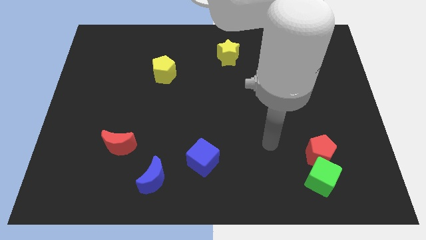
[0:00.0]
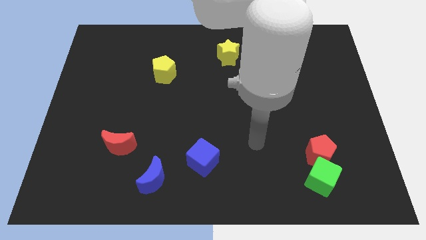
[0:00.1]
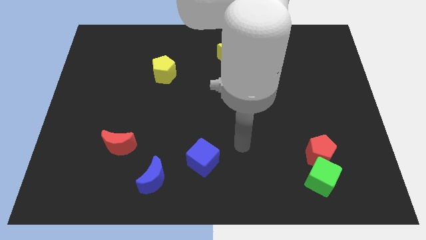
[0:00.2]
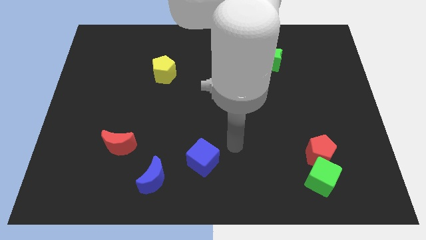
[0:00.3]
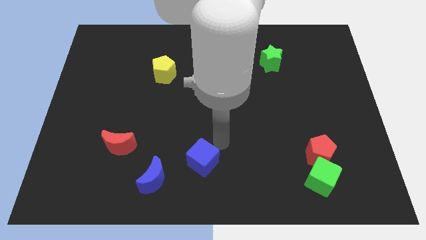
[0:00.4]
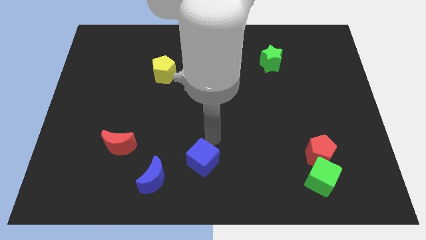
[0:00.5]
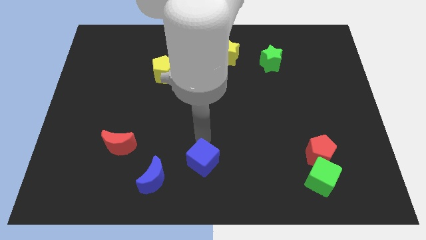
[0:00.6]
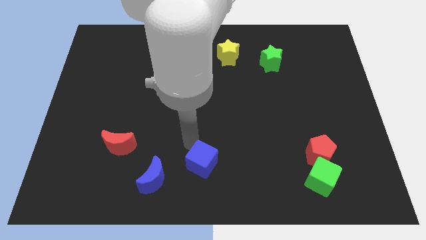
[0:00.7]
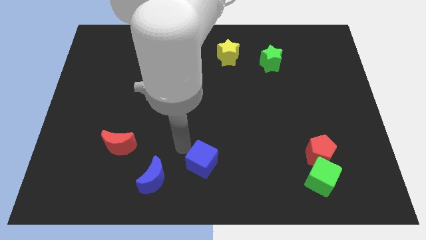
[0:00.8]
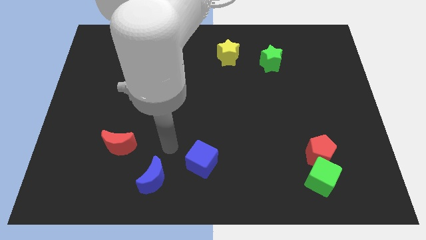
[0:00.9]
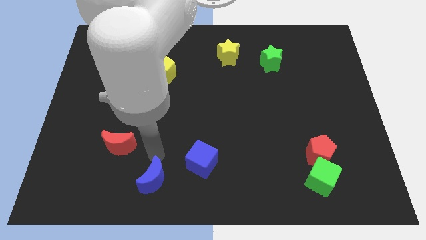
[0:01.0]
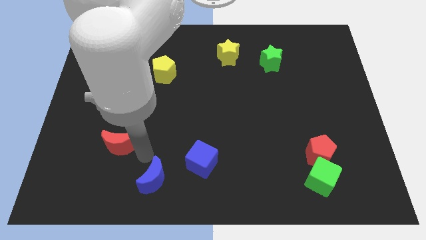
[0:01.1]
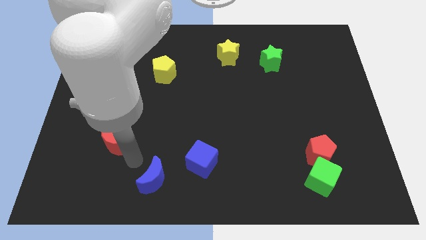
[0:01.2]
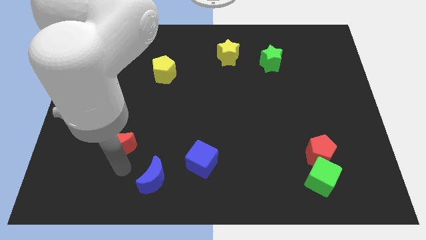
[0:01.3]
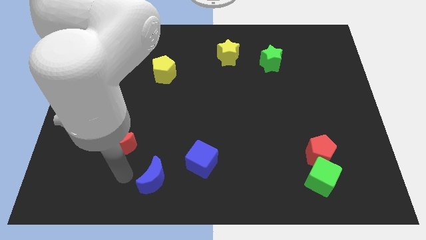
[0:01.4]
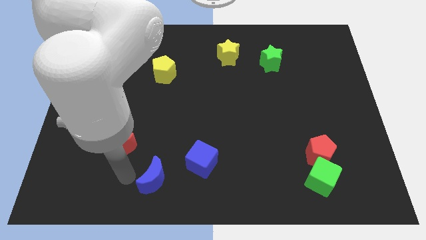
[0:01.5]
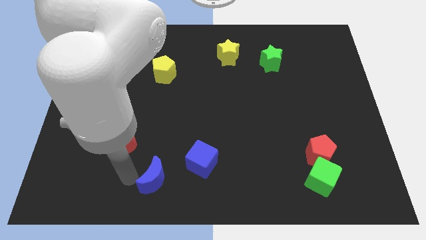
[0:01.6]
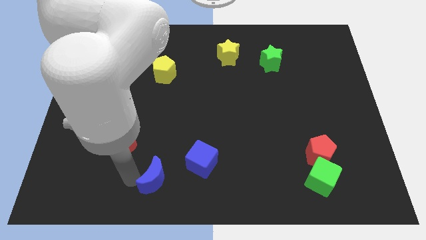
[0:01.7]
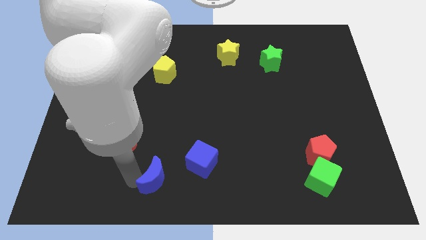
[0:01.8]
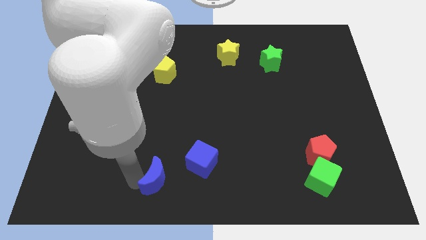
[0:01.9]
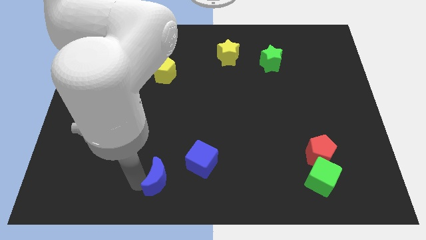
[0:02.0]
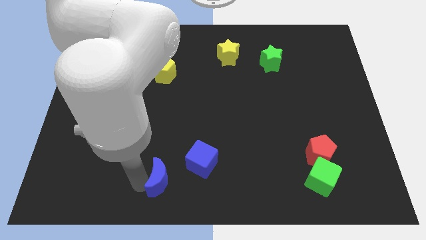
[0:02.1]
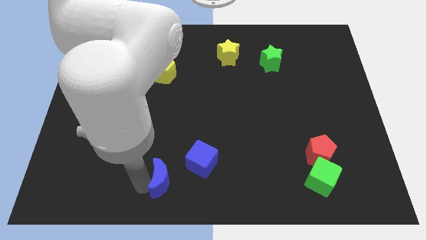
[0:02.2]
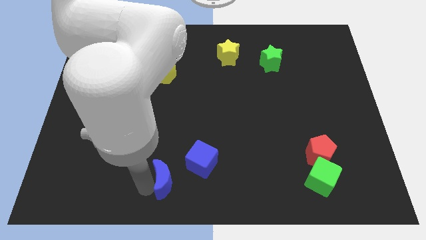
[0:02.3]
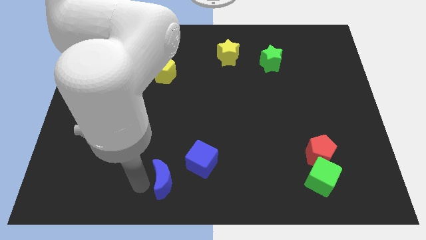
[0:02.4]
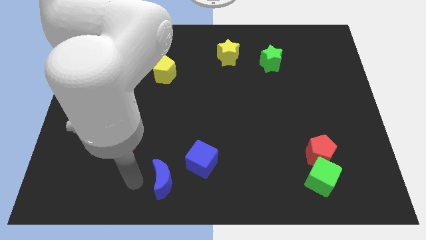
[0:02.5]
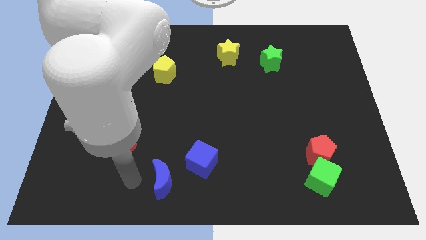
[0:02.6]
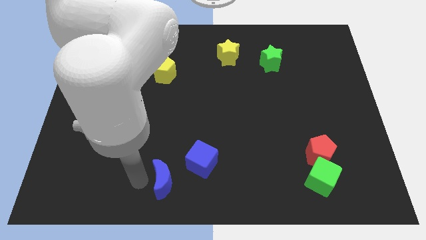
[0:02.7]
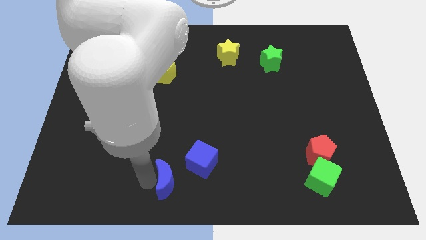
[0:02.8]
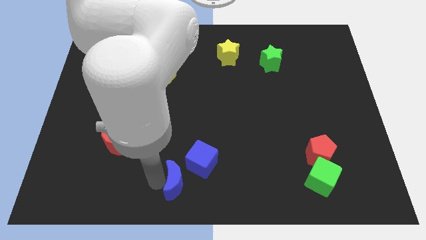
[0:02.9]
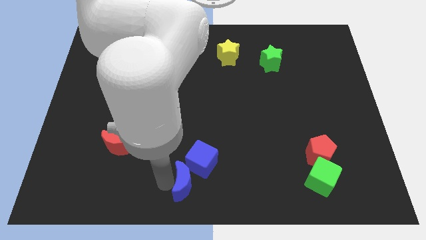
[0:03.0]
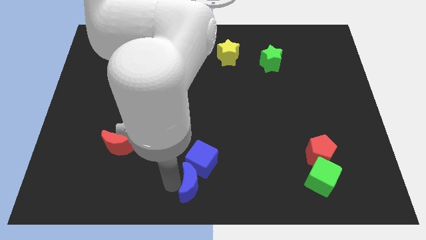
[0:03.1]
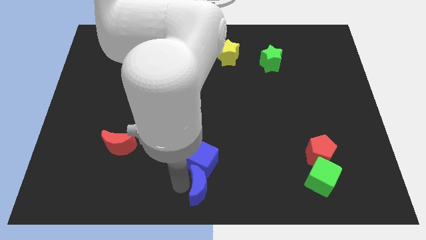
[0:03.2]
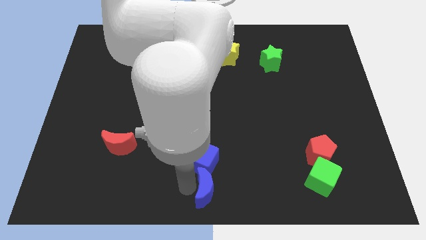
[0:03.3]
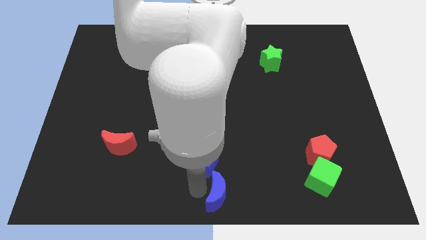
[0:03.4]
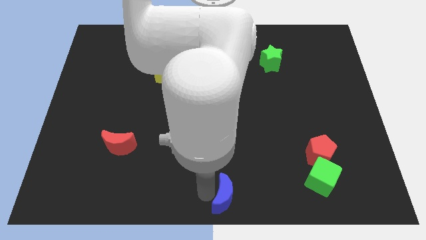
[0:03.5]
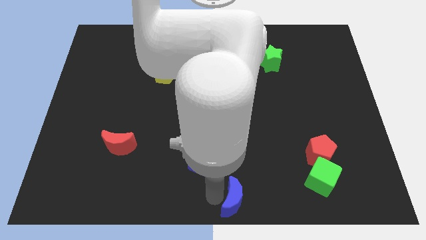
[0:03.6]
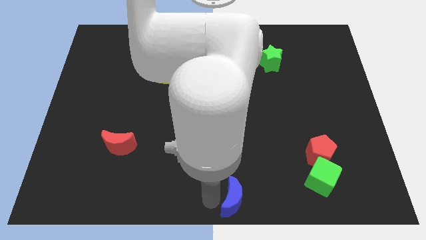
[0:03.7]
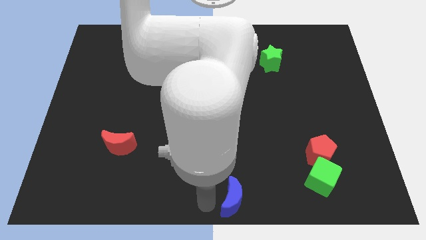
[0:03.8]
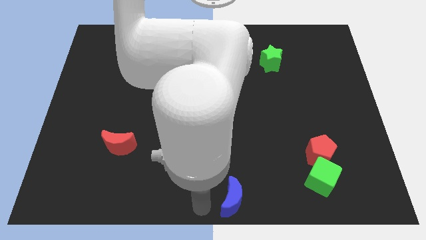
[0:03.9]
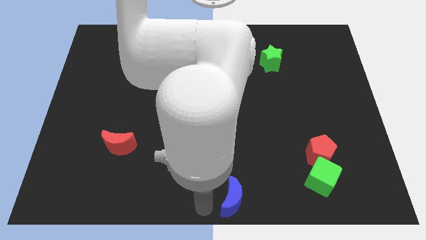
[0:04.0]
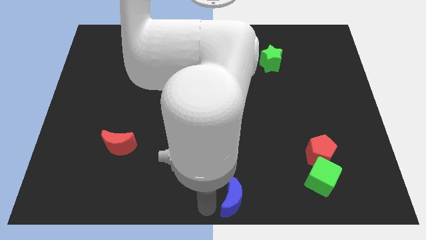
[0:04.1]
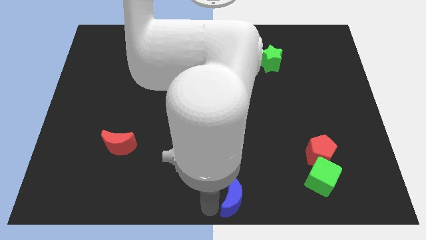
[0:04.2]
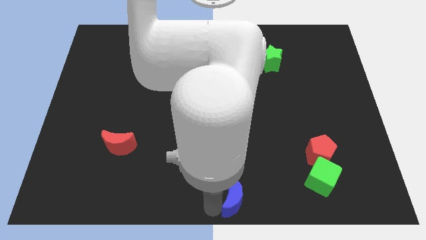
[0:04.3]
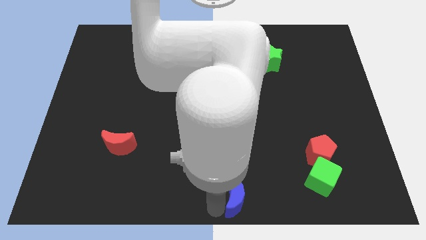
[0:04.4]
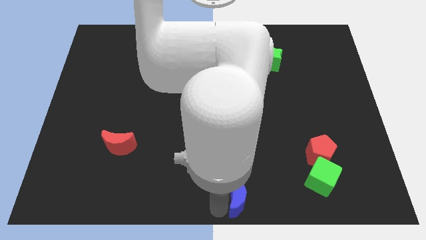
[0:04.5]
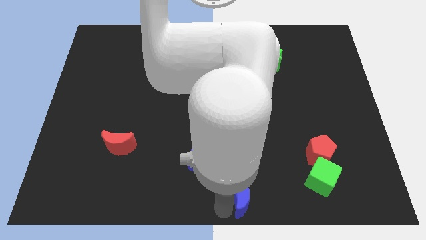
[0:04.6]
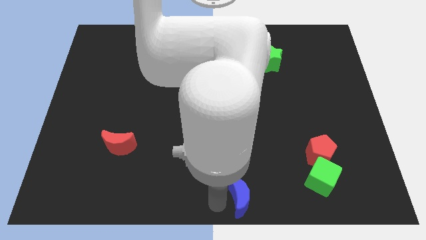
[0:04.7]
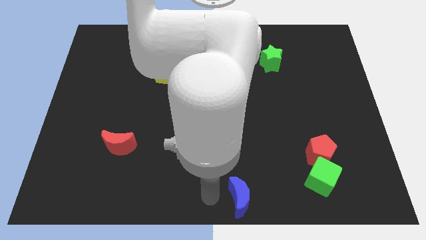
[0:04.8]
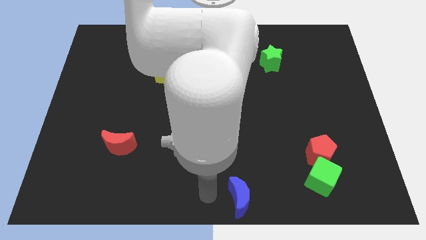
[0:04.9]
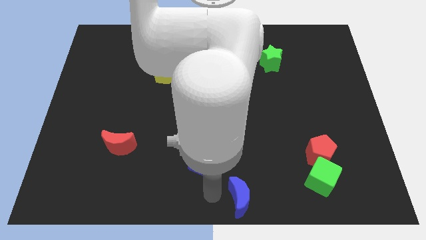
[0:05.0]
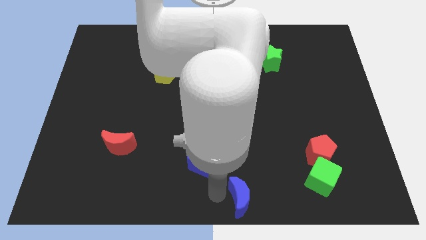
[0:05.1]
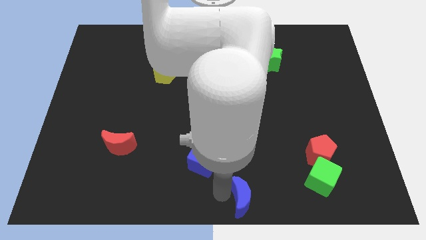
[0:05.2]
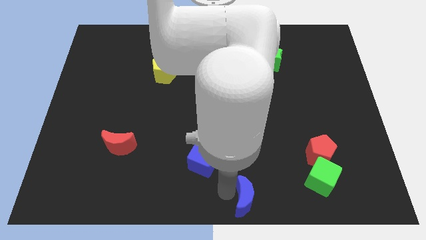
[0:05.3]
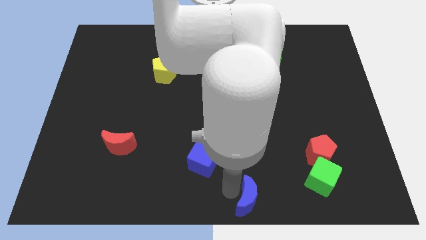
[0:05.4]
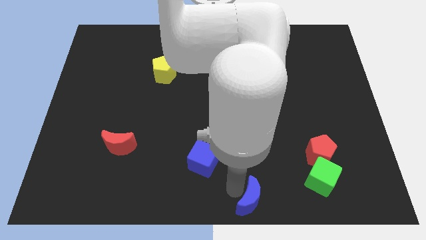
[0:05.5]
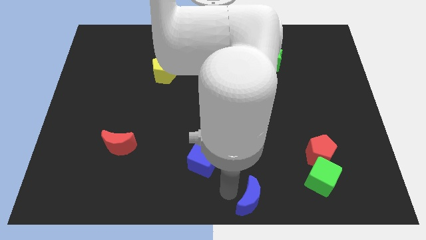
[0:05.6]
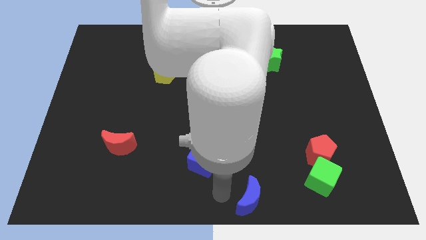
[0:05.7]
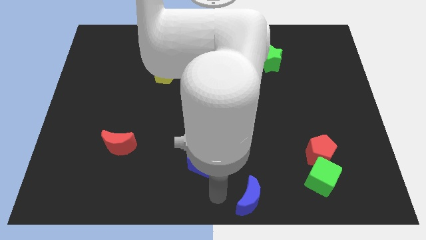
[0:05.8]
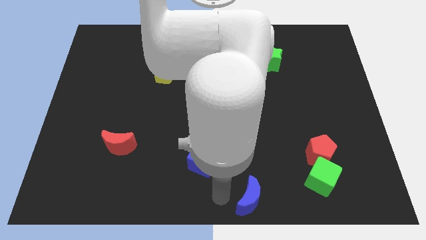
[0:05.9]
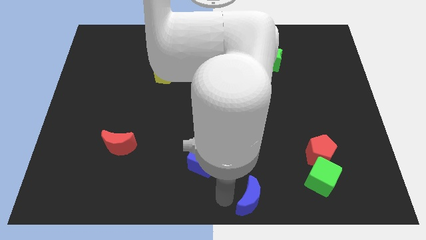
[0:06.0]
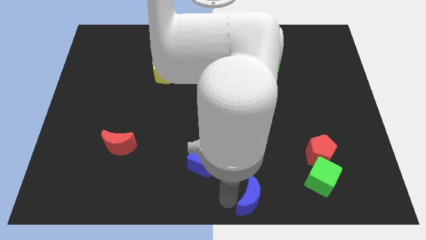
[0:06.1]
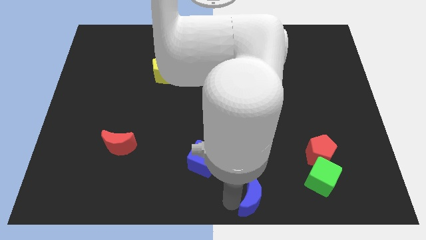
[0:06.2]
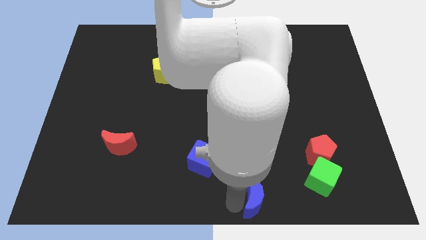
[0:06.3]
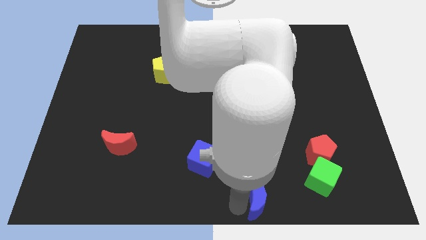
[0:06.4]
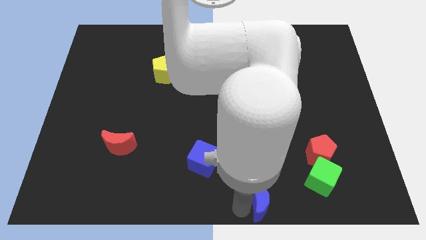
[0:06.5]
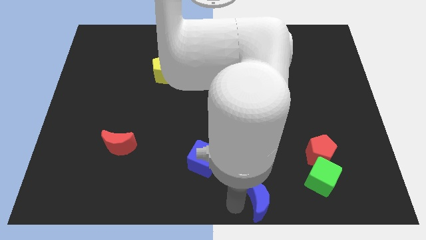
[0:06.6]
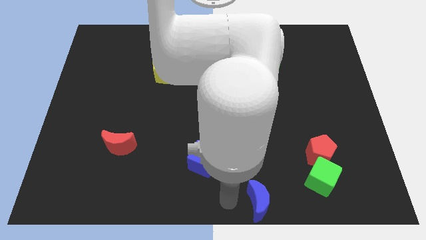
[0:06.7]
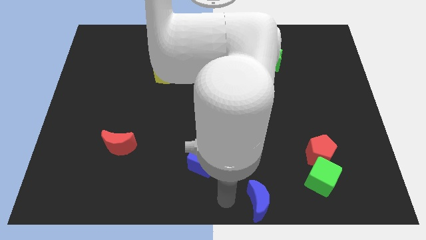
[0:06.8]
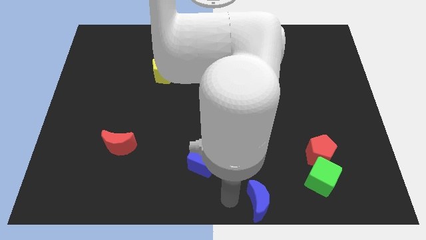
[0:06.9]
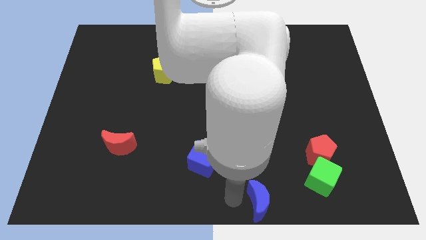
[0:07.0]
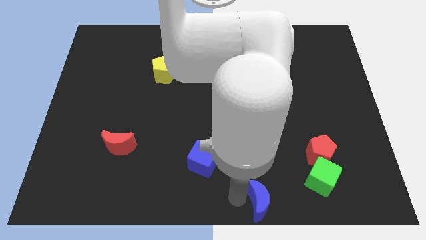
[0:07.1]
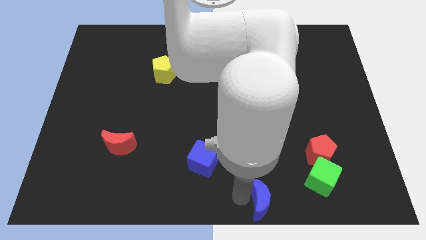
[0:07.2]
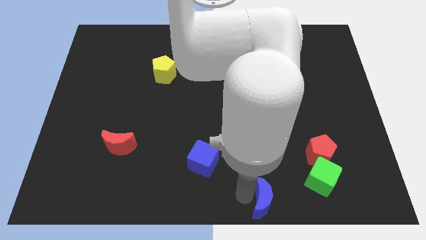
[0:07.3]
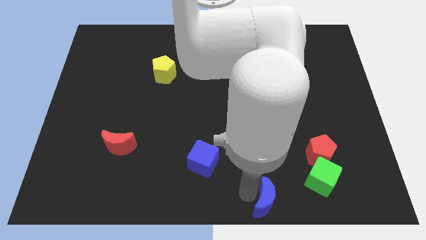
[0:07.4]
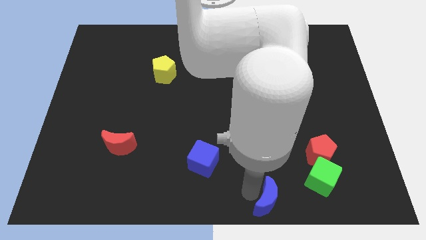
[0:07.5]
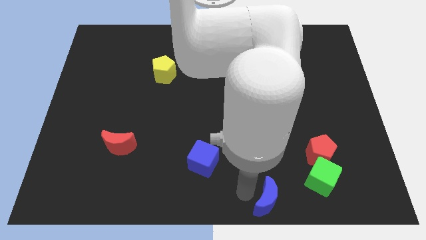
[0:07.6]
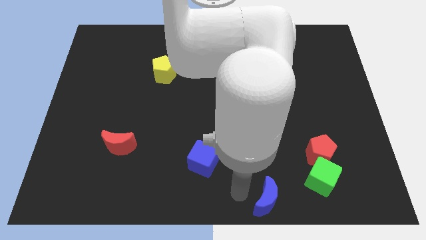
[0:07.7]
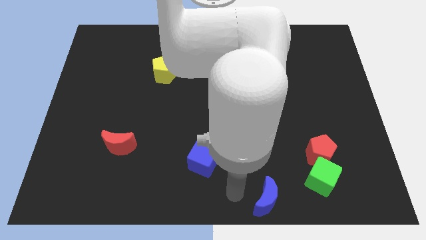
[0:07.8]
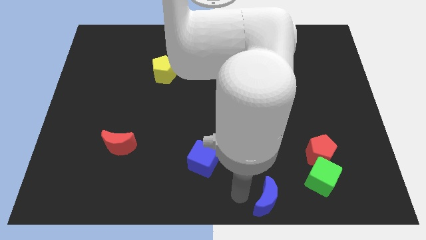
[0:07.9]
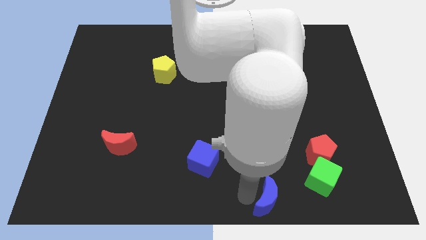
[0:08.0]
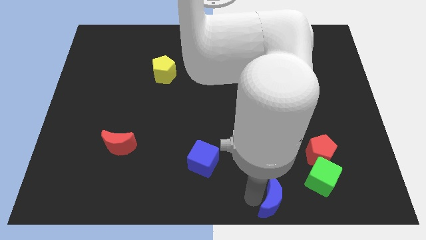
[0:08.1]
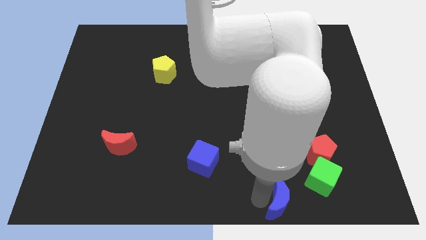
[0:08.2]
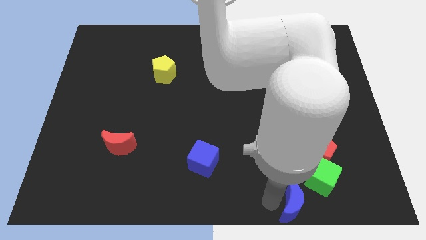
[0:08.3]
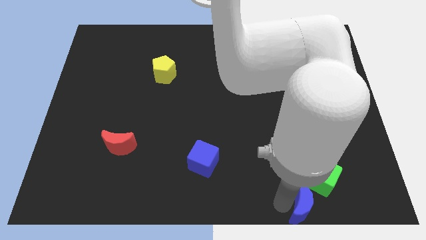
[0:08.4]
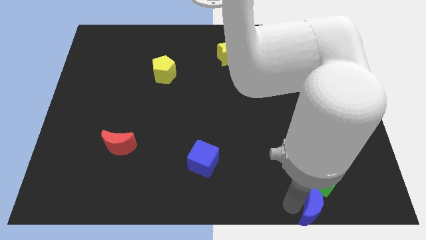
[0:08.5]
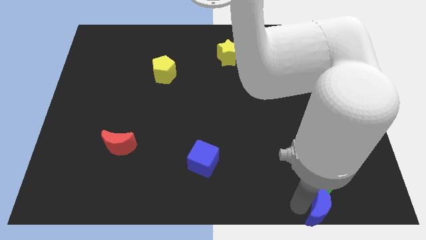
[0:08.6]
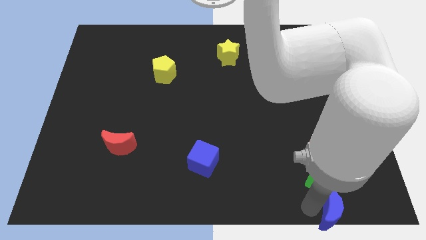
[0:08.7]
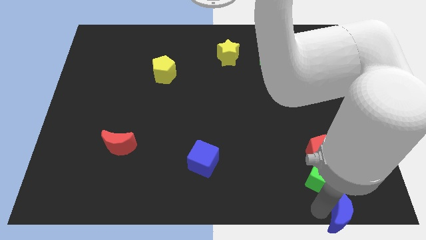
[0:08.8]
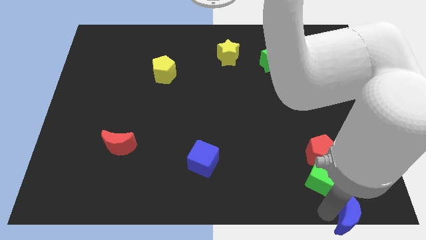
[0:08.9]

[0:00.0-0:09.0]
put the blue moon to the bottom right of the board
